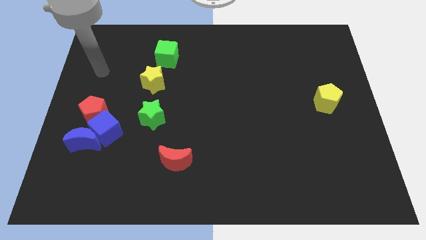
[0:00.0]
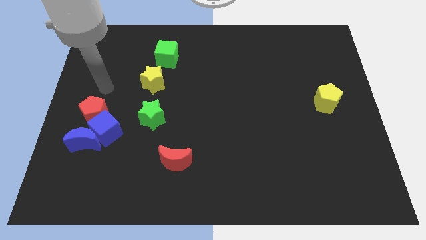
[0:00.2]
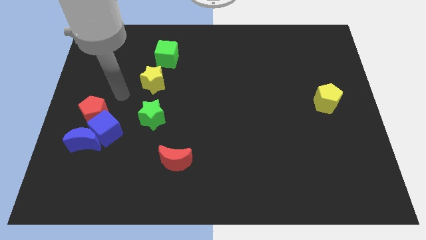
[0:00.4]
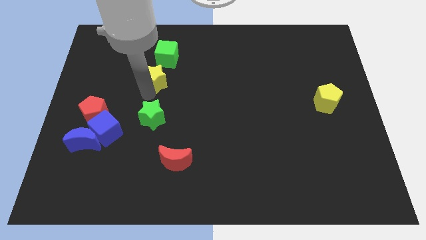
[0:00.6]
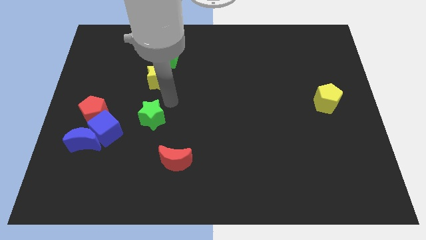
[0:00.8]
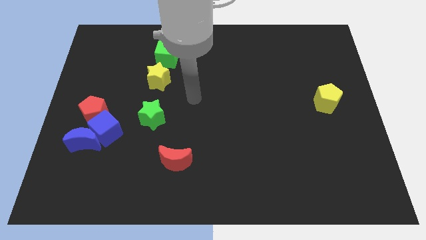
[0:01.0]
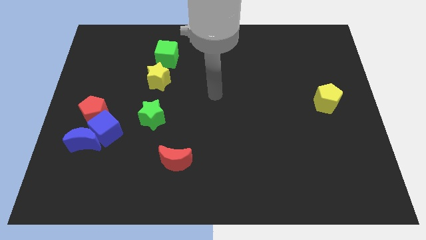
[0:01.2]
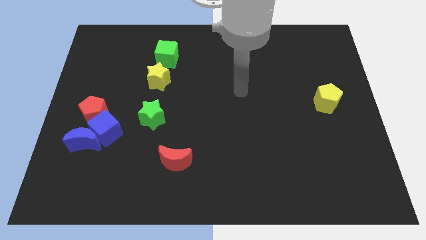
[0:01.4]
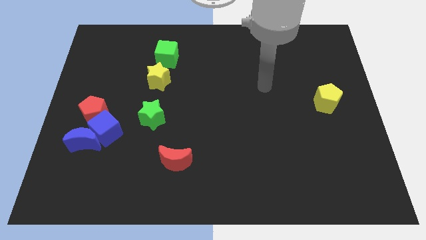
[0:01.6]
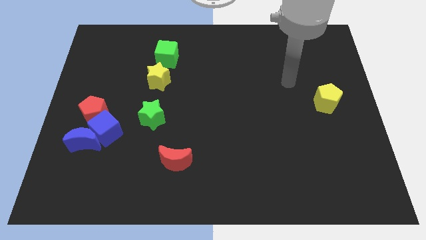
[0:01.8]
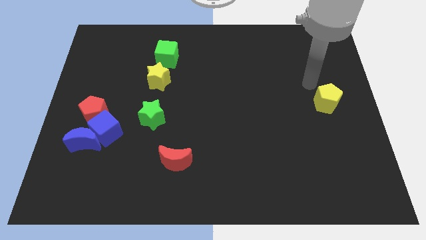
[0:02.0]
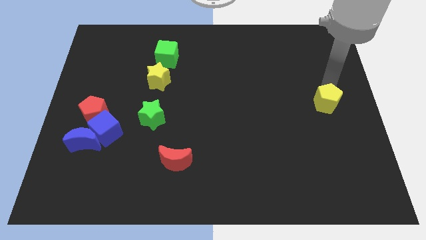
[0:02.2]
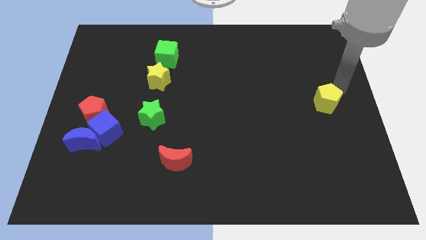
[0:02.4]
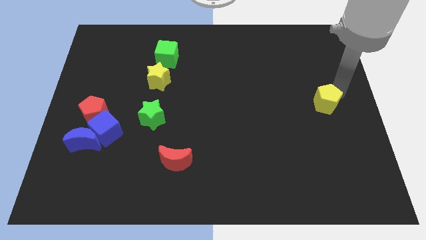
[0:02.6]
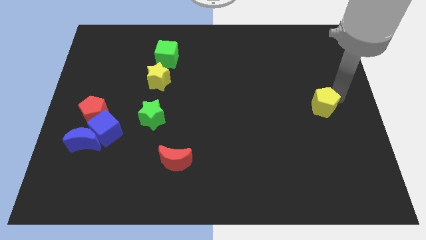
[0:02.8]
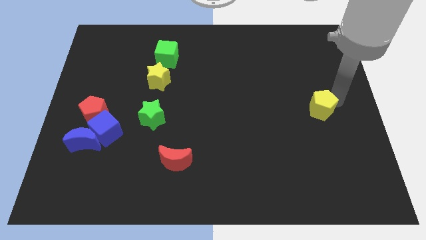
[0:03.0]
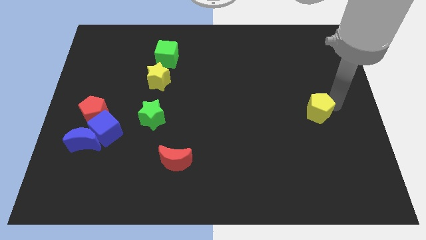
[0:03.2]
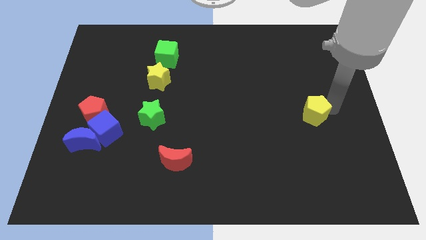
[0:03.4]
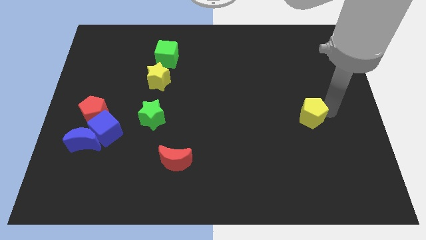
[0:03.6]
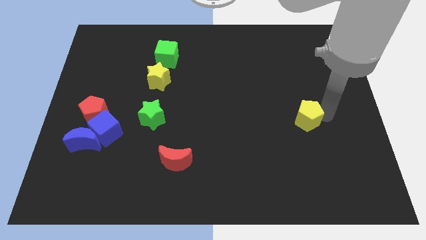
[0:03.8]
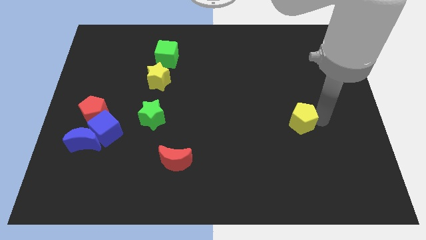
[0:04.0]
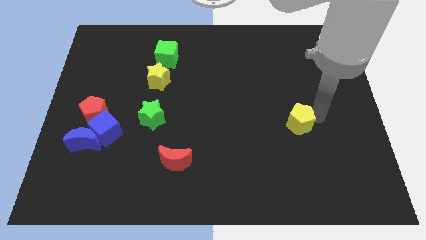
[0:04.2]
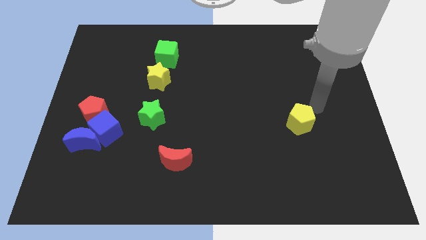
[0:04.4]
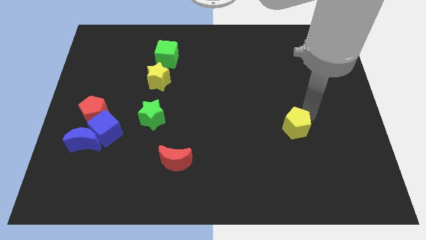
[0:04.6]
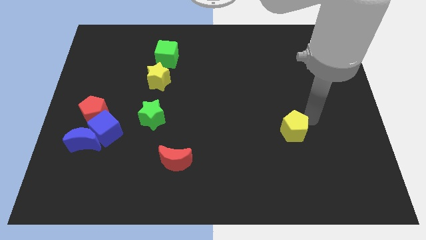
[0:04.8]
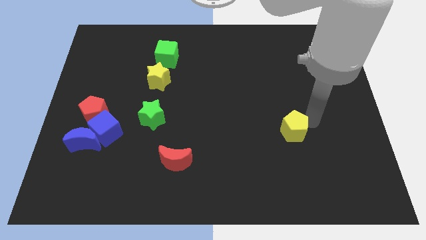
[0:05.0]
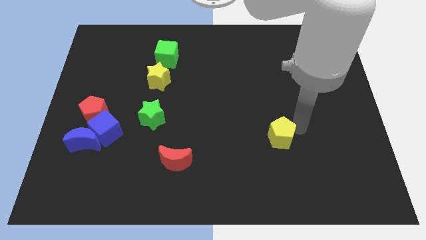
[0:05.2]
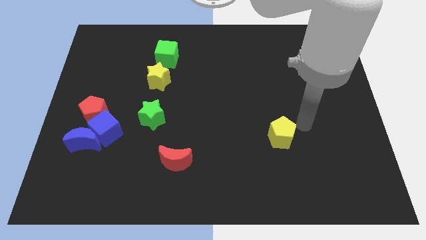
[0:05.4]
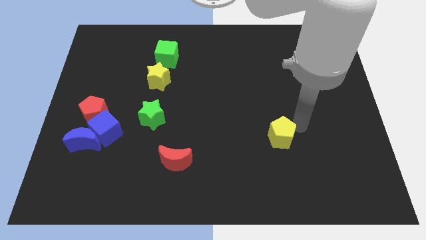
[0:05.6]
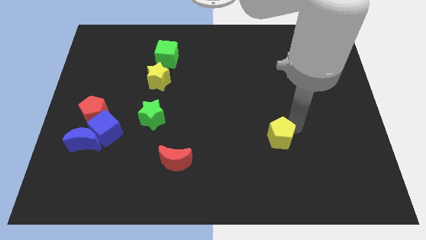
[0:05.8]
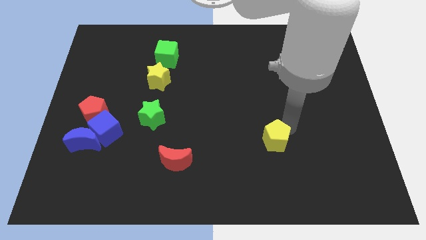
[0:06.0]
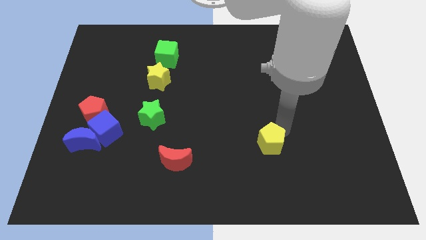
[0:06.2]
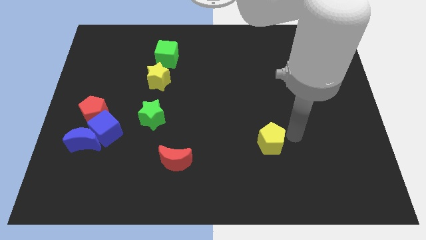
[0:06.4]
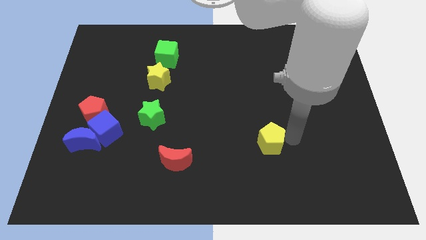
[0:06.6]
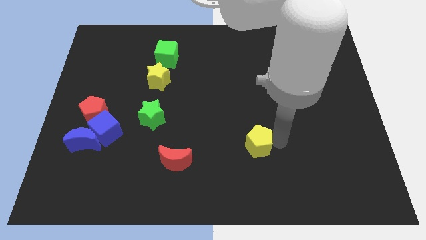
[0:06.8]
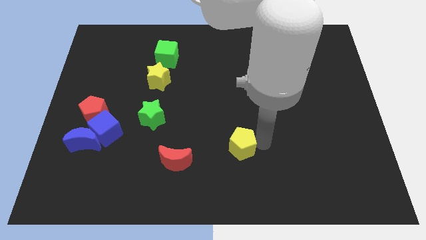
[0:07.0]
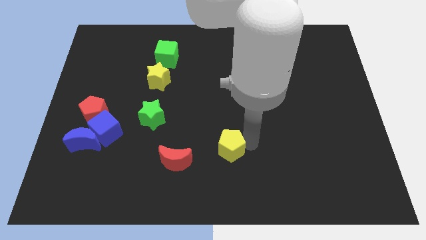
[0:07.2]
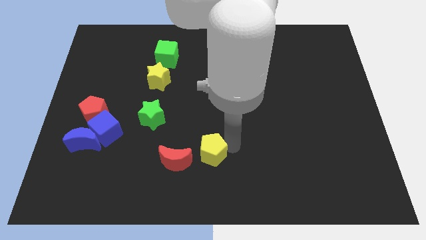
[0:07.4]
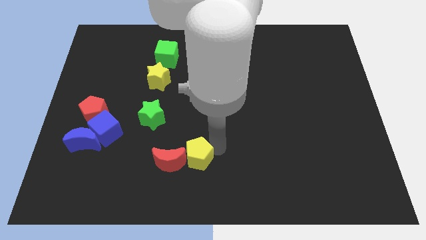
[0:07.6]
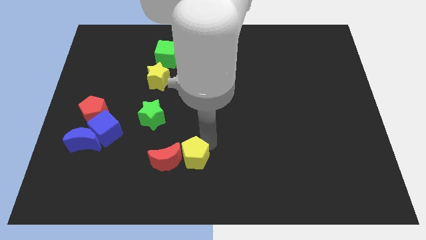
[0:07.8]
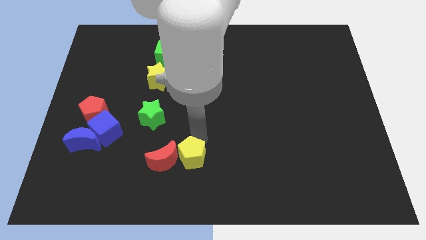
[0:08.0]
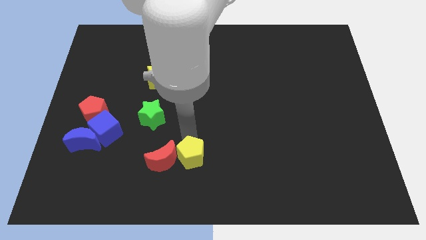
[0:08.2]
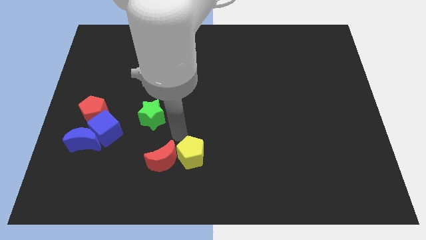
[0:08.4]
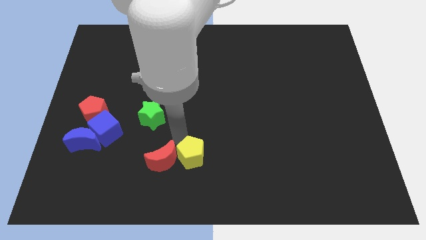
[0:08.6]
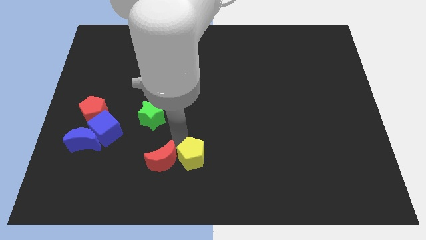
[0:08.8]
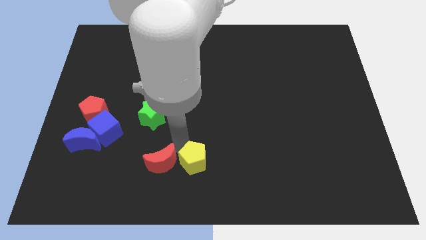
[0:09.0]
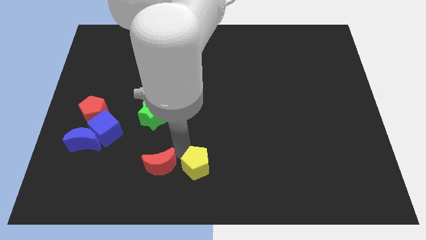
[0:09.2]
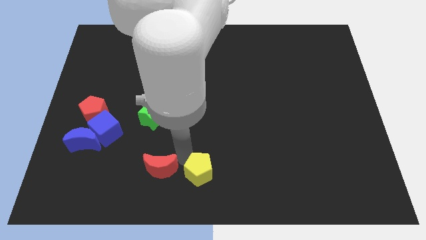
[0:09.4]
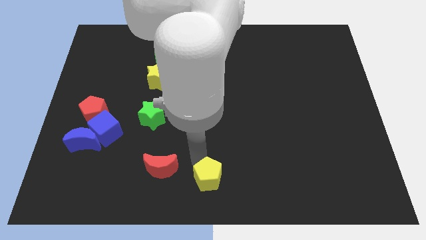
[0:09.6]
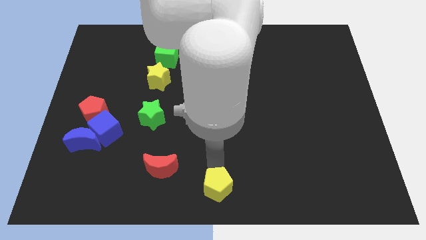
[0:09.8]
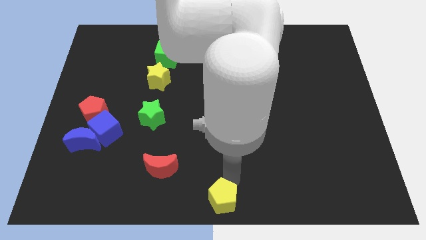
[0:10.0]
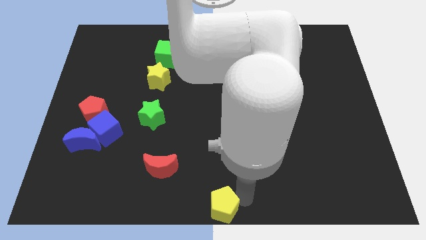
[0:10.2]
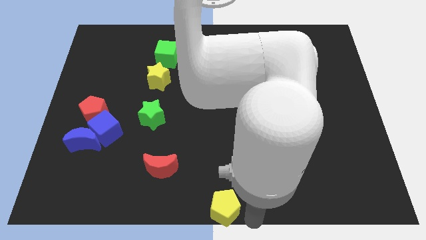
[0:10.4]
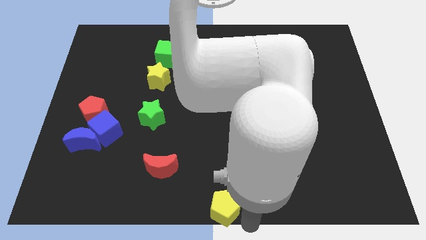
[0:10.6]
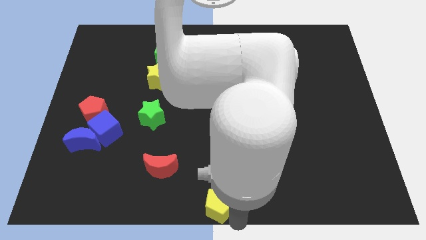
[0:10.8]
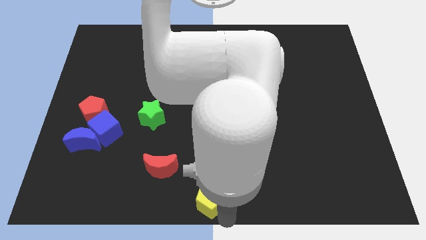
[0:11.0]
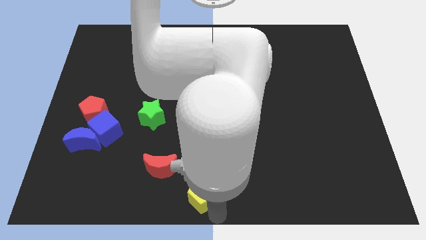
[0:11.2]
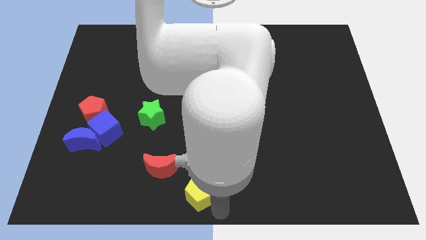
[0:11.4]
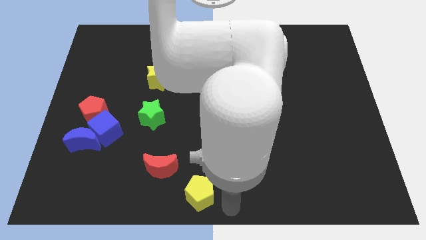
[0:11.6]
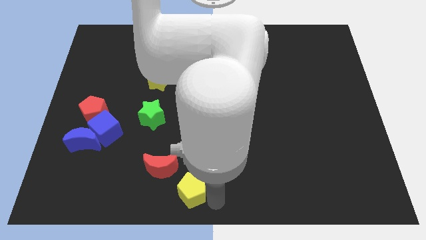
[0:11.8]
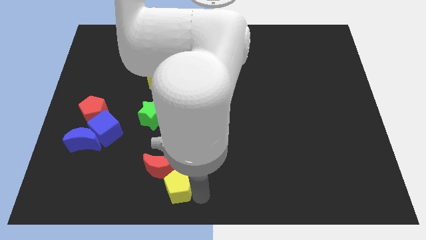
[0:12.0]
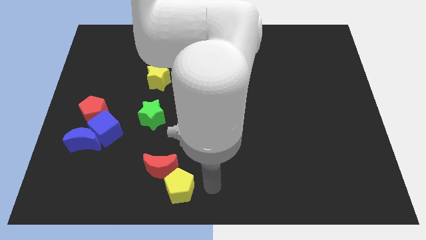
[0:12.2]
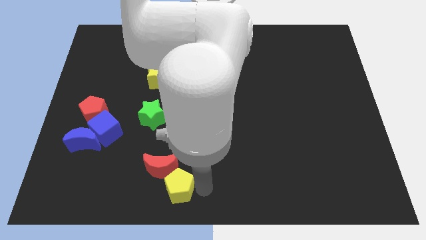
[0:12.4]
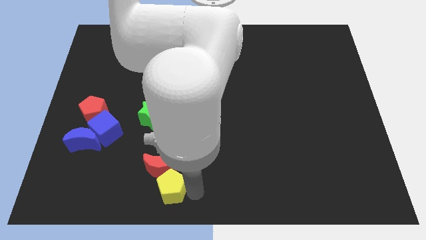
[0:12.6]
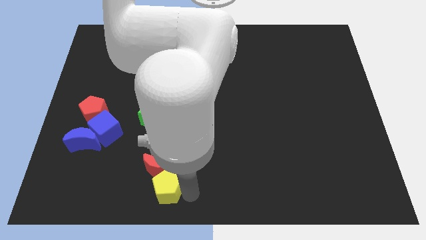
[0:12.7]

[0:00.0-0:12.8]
move the yellow pentagon to the bottom left side of the red moon

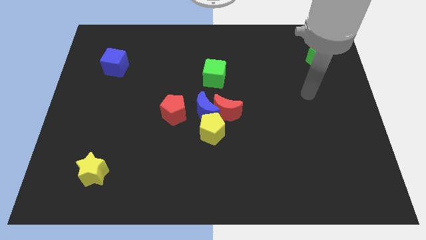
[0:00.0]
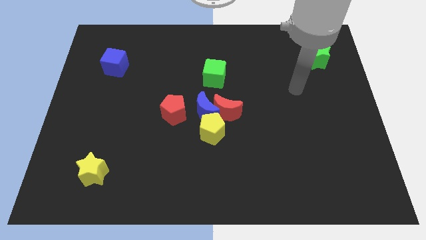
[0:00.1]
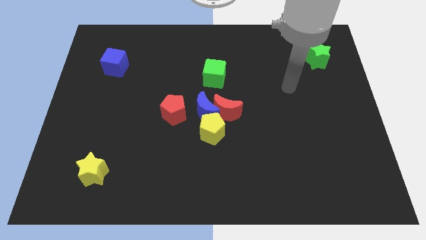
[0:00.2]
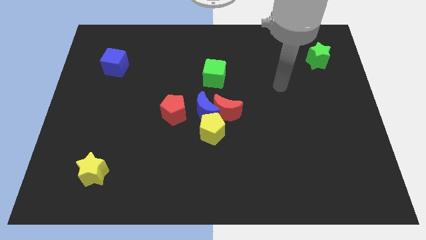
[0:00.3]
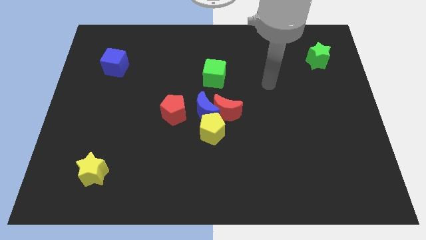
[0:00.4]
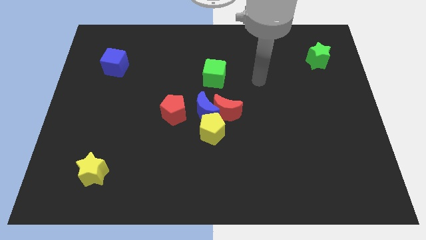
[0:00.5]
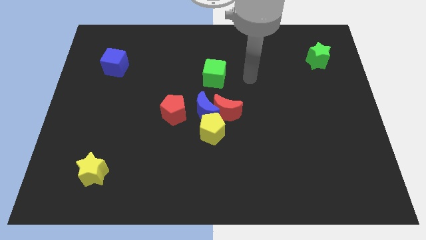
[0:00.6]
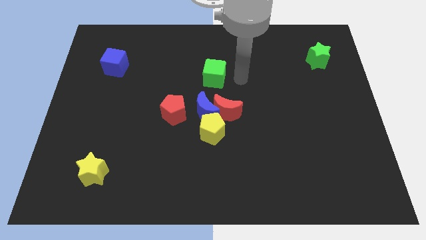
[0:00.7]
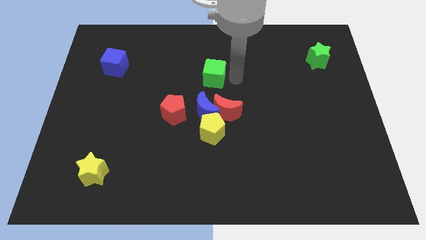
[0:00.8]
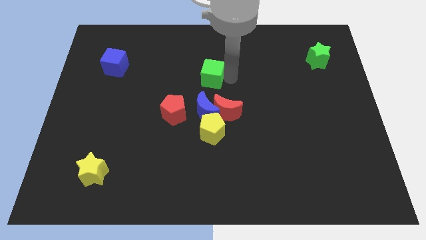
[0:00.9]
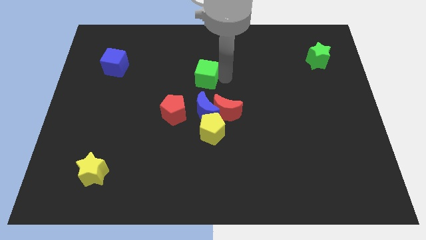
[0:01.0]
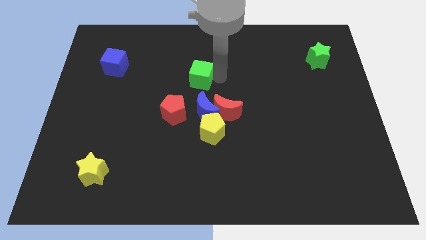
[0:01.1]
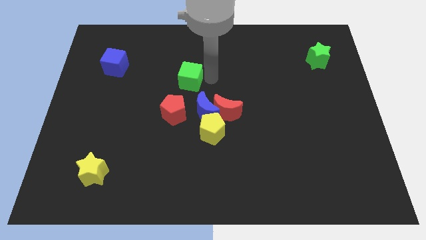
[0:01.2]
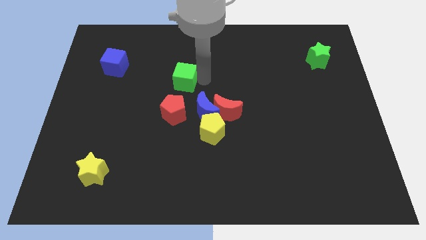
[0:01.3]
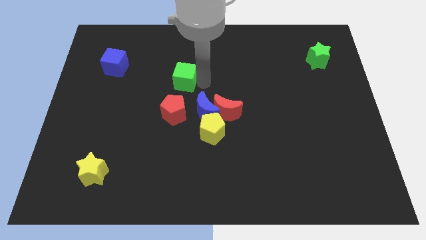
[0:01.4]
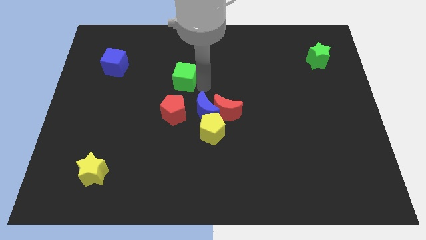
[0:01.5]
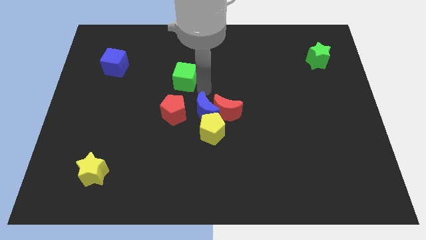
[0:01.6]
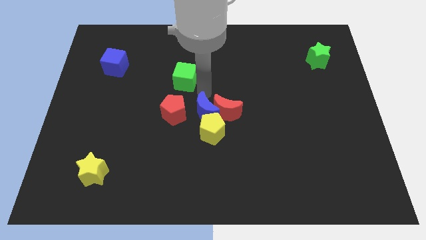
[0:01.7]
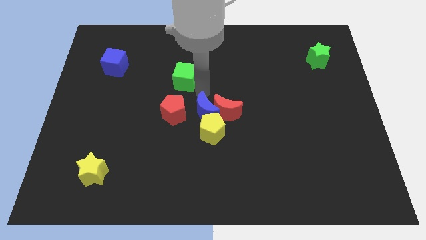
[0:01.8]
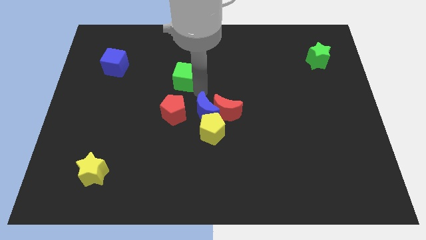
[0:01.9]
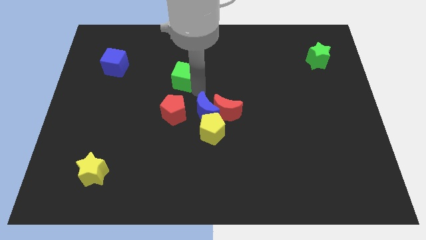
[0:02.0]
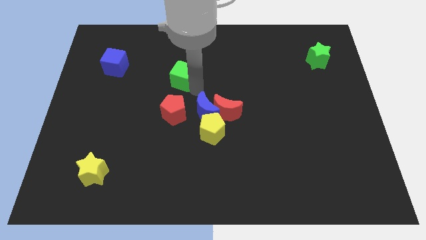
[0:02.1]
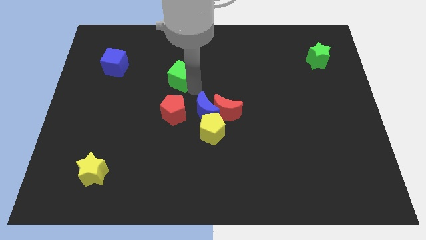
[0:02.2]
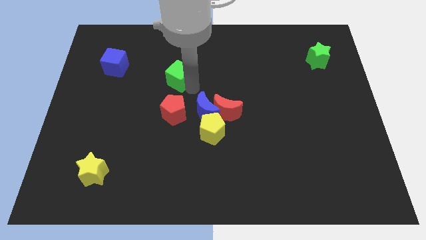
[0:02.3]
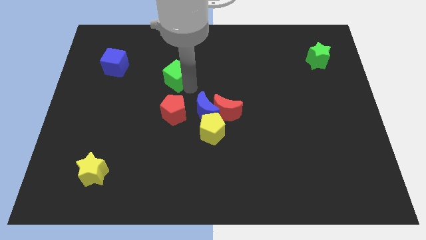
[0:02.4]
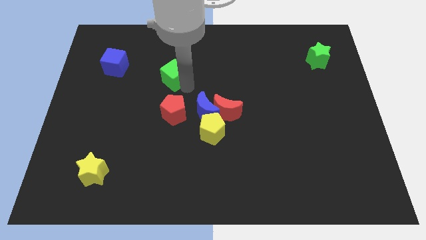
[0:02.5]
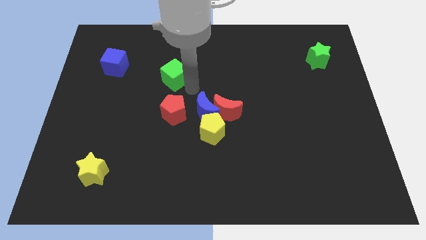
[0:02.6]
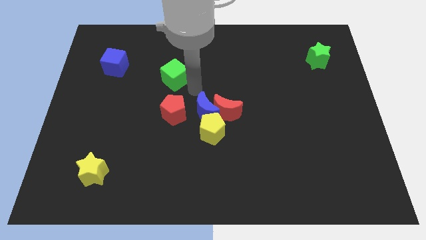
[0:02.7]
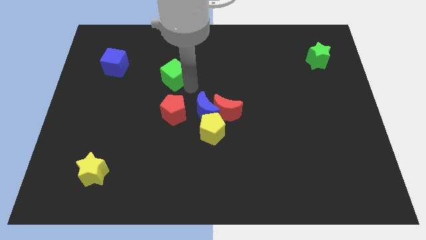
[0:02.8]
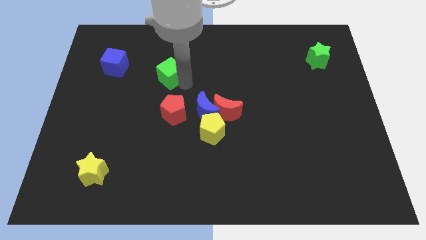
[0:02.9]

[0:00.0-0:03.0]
put the green cube just right of the blue cube
